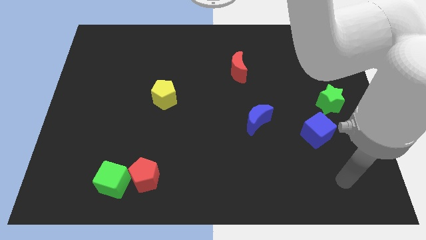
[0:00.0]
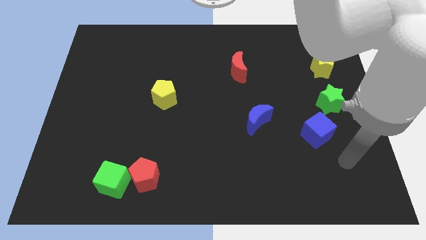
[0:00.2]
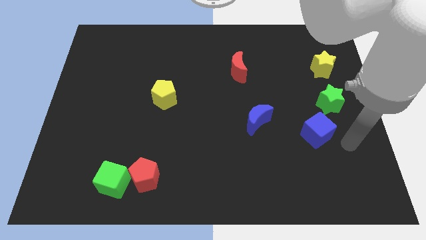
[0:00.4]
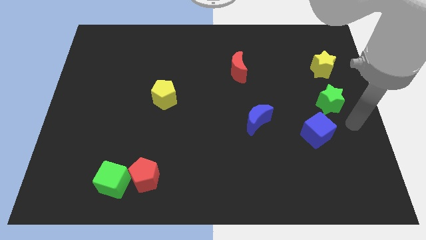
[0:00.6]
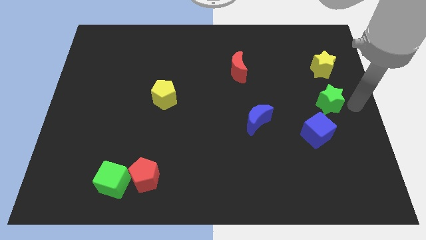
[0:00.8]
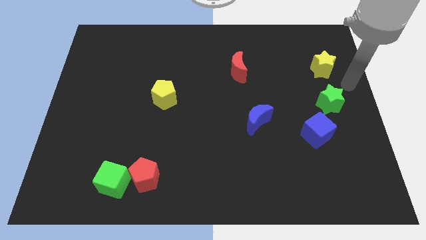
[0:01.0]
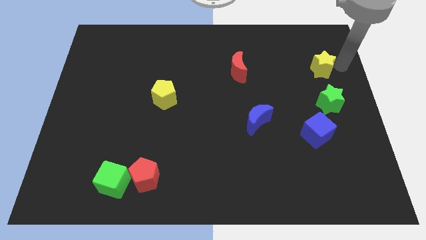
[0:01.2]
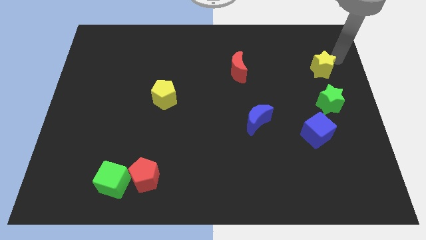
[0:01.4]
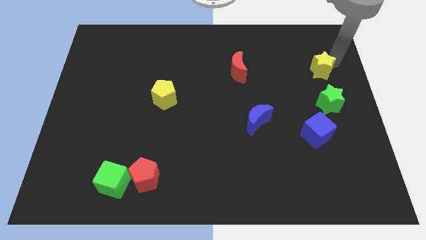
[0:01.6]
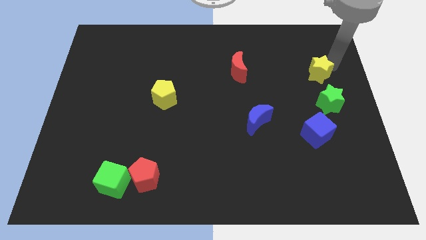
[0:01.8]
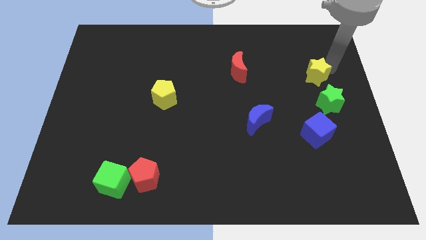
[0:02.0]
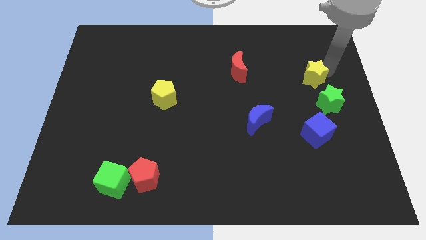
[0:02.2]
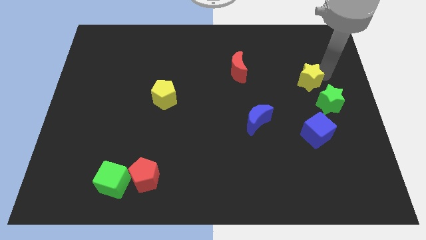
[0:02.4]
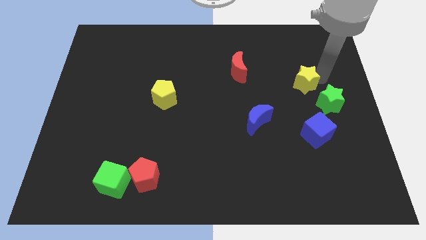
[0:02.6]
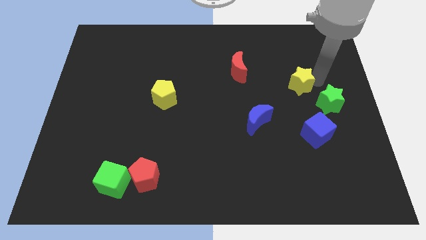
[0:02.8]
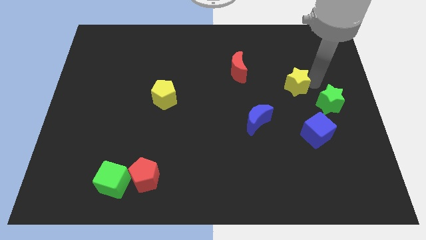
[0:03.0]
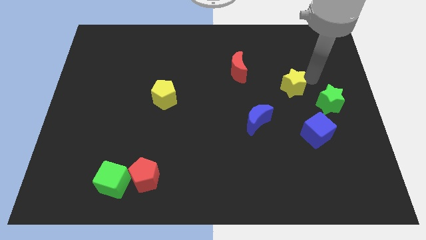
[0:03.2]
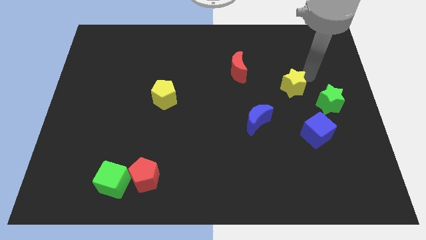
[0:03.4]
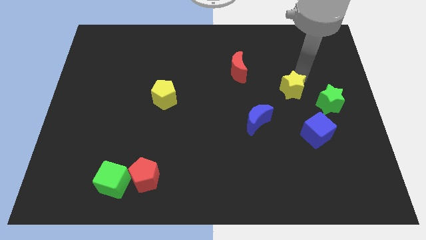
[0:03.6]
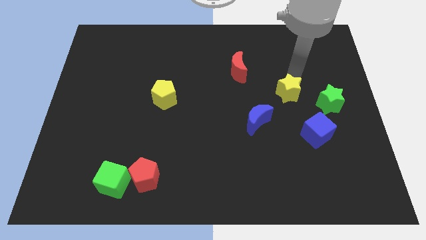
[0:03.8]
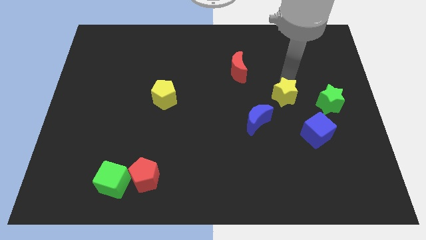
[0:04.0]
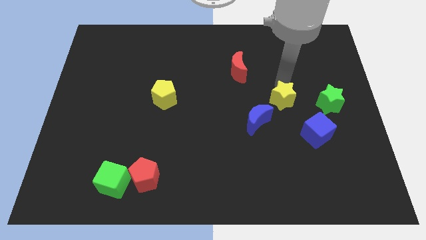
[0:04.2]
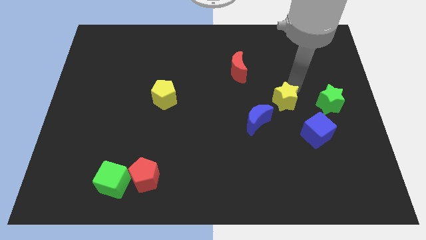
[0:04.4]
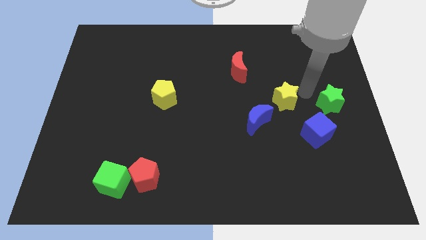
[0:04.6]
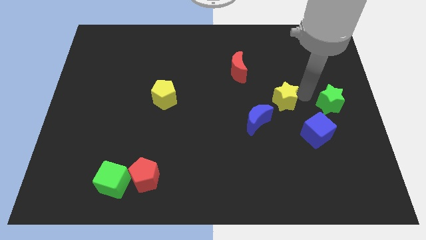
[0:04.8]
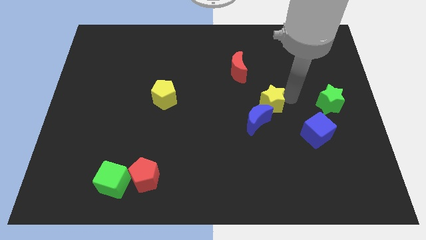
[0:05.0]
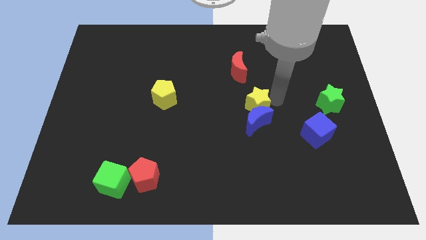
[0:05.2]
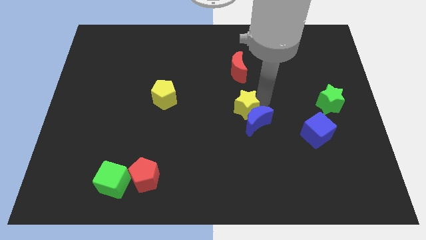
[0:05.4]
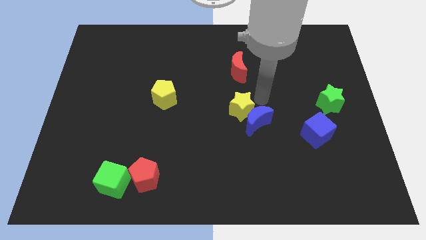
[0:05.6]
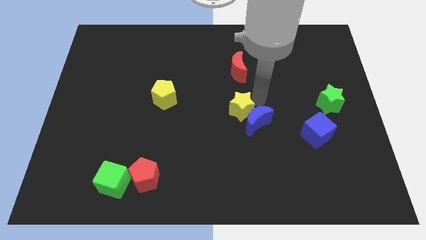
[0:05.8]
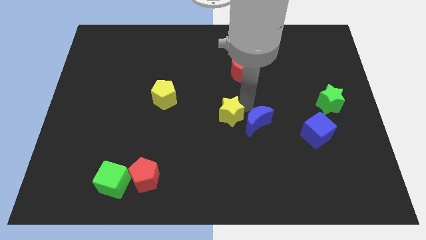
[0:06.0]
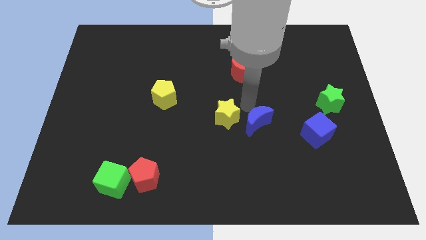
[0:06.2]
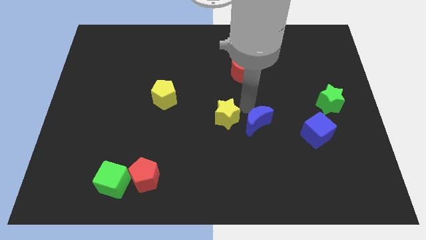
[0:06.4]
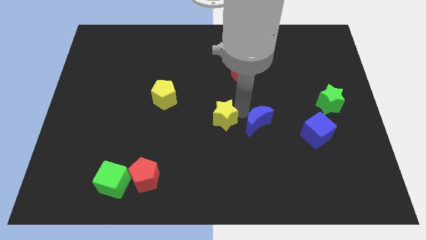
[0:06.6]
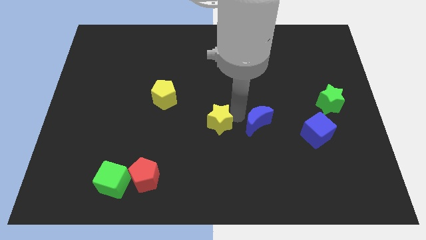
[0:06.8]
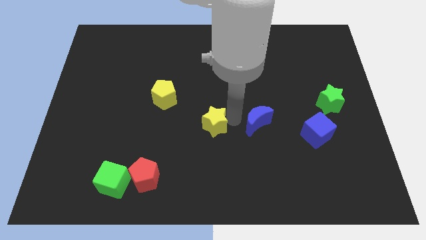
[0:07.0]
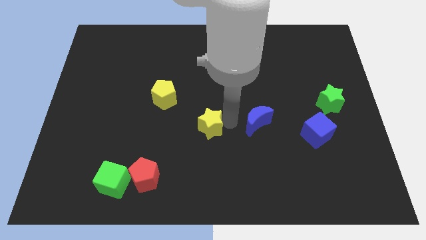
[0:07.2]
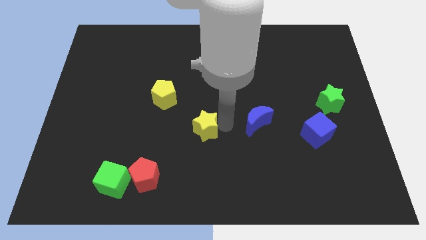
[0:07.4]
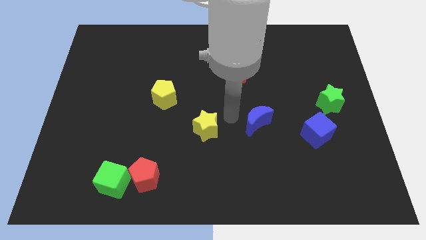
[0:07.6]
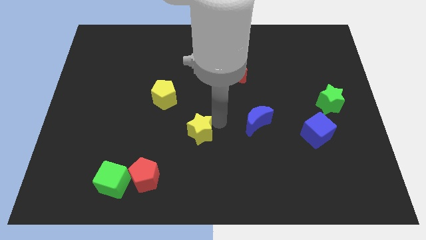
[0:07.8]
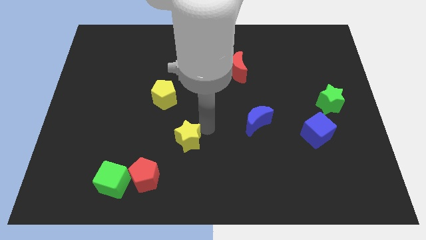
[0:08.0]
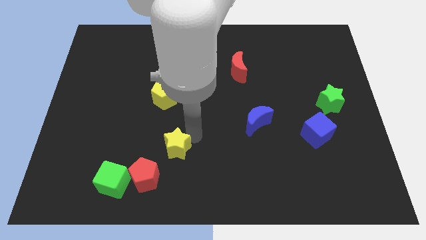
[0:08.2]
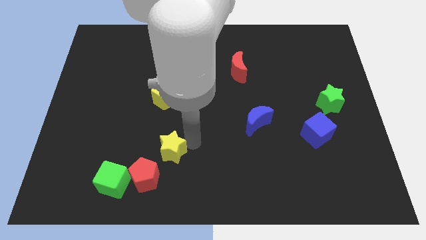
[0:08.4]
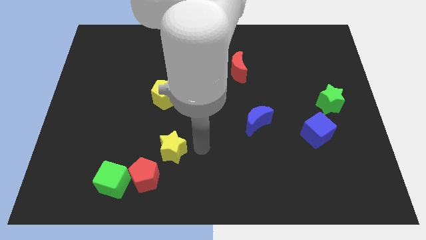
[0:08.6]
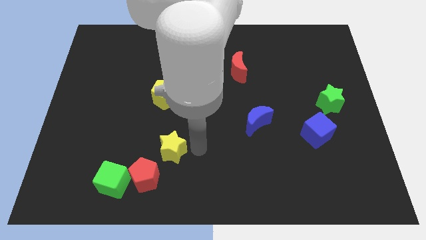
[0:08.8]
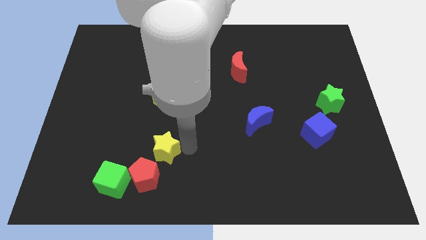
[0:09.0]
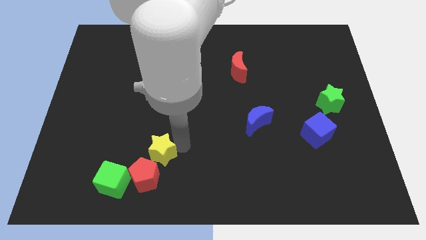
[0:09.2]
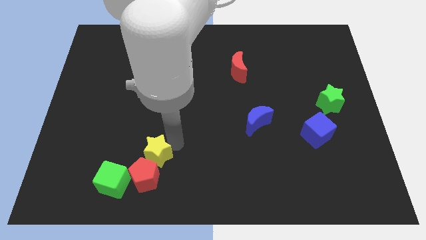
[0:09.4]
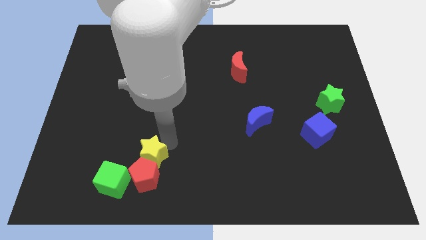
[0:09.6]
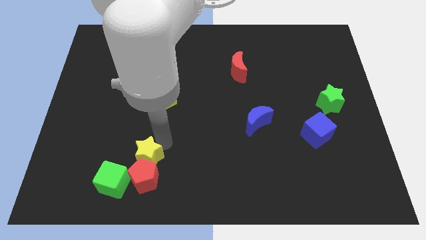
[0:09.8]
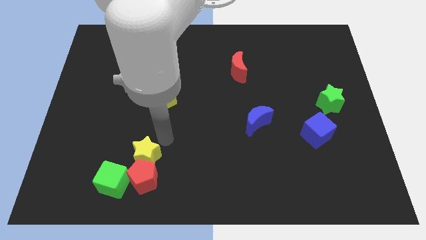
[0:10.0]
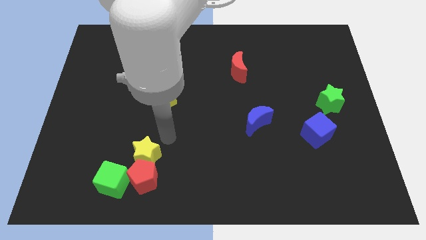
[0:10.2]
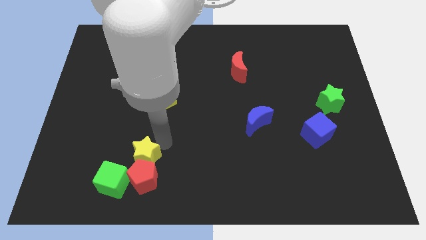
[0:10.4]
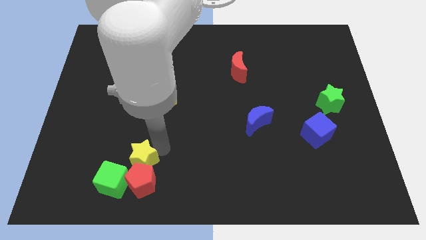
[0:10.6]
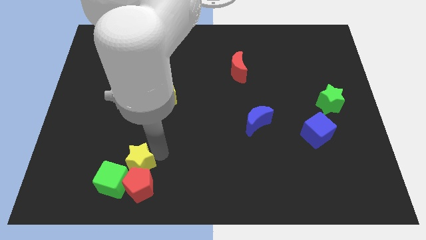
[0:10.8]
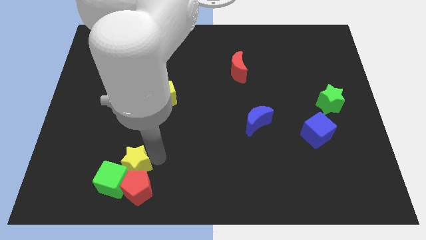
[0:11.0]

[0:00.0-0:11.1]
put the yellow star close to the green cube

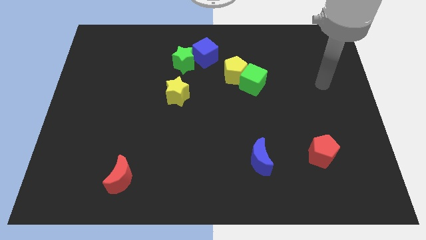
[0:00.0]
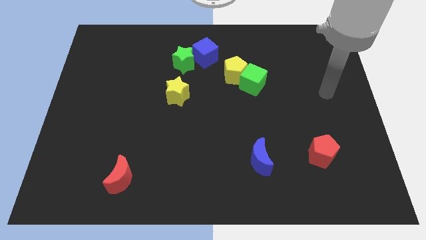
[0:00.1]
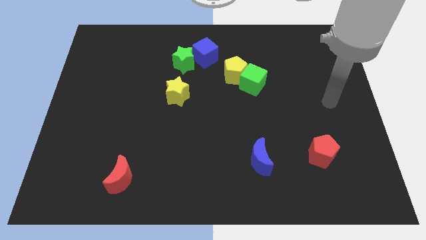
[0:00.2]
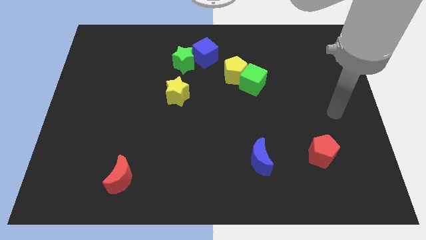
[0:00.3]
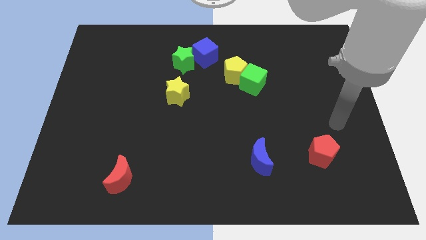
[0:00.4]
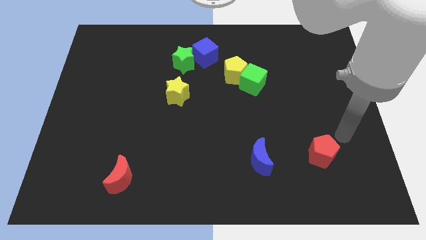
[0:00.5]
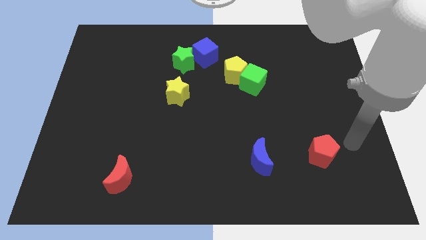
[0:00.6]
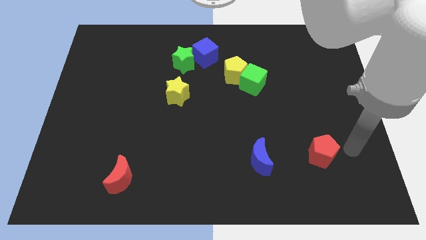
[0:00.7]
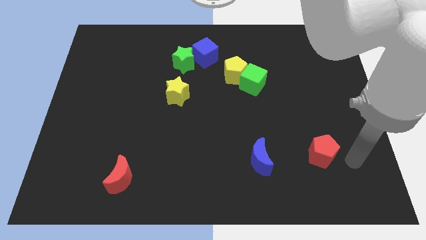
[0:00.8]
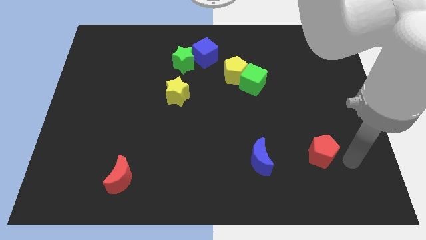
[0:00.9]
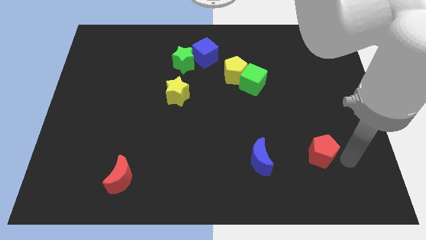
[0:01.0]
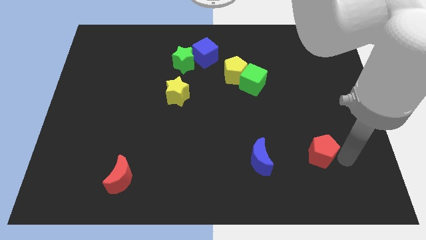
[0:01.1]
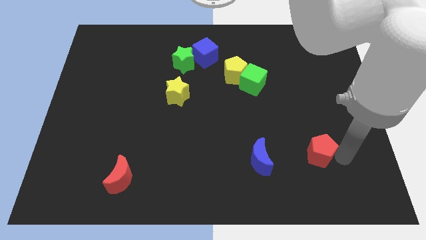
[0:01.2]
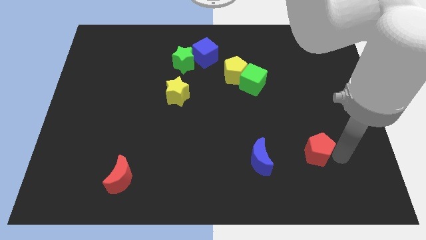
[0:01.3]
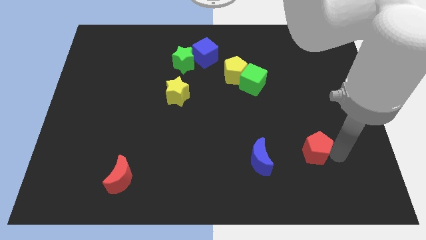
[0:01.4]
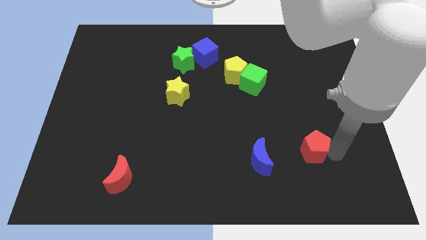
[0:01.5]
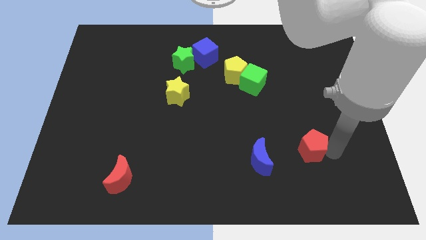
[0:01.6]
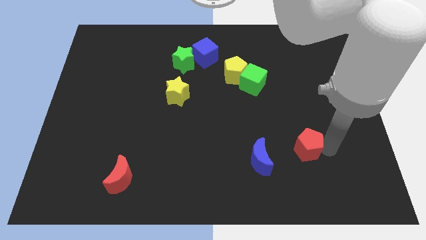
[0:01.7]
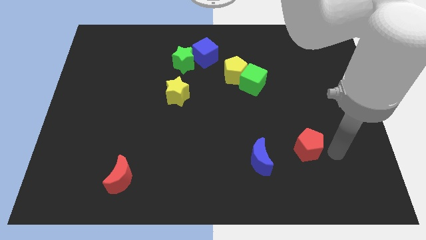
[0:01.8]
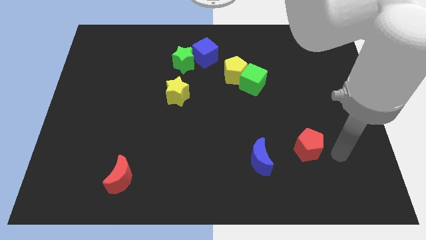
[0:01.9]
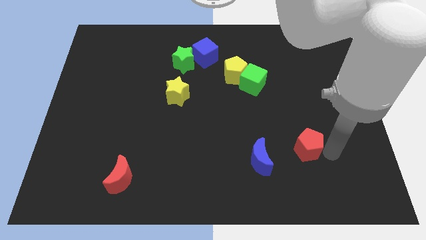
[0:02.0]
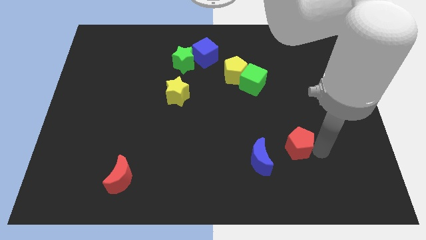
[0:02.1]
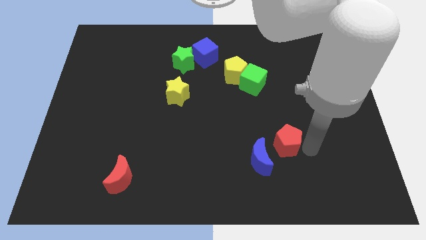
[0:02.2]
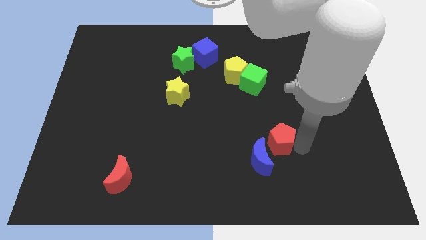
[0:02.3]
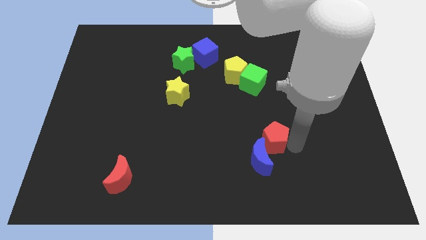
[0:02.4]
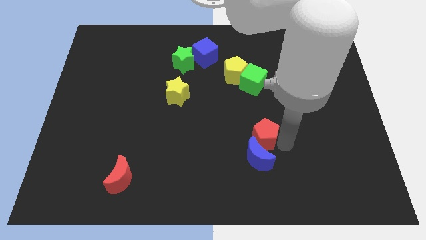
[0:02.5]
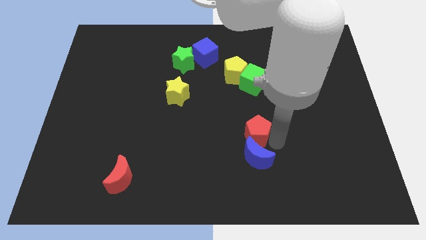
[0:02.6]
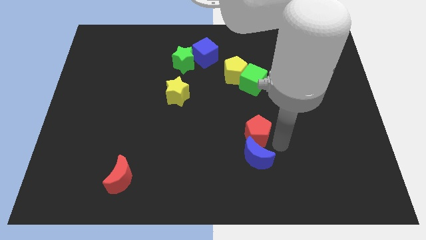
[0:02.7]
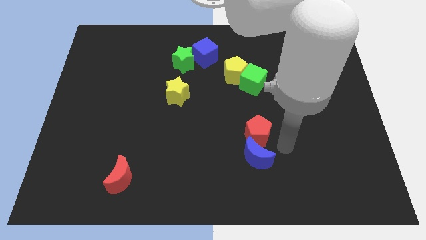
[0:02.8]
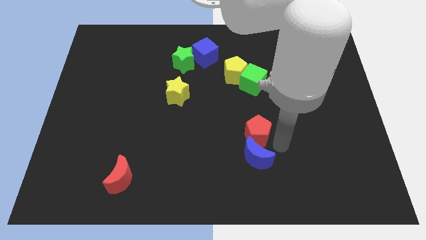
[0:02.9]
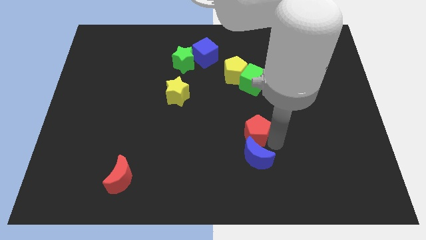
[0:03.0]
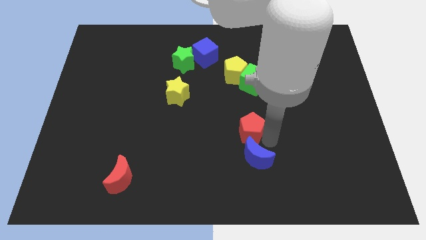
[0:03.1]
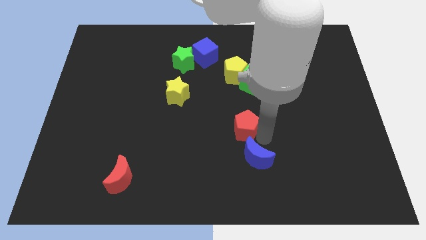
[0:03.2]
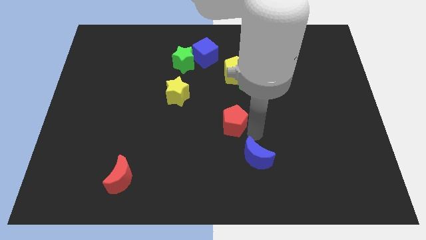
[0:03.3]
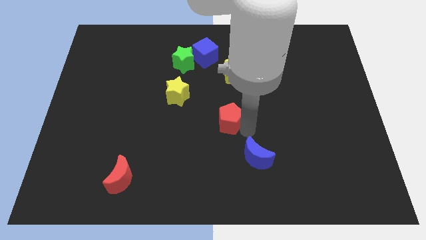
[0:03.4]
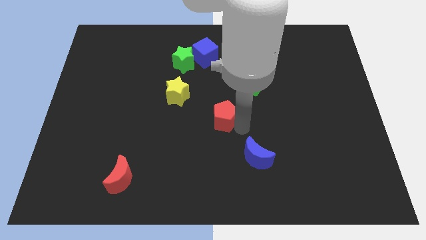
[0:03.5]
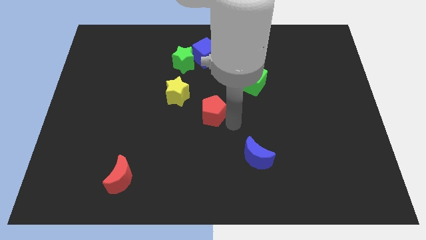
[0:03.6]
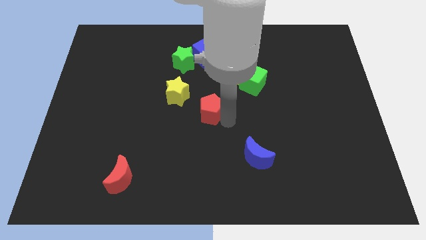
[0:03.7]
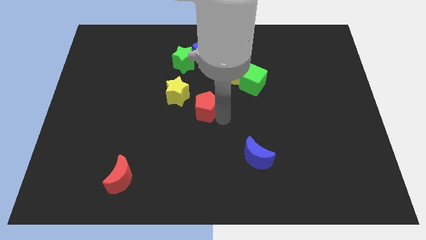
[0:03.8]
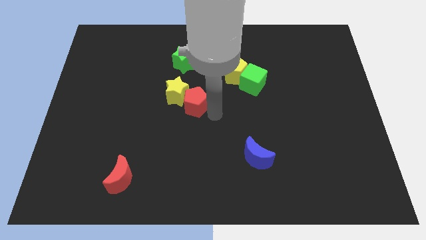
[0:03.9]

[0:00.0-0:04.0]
move the red pentagon towards the yellow star
